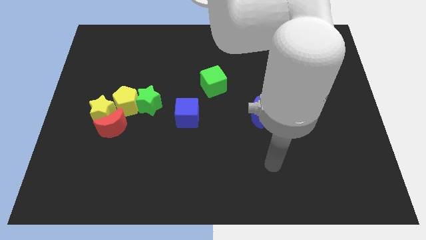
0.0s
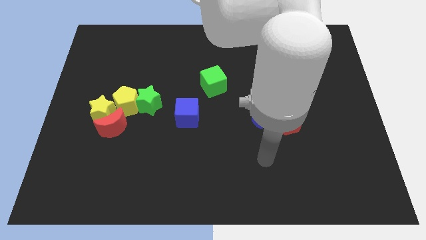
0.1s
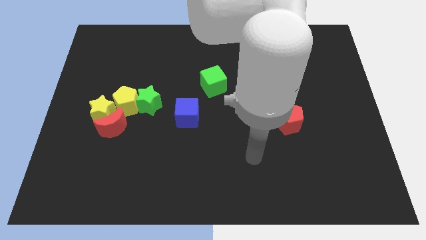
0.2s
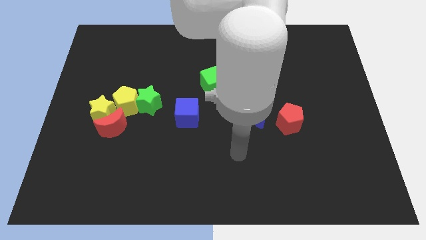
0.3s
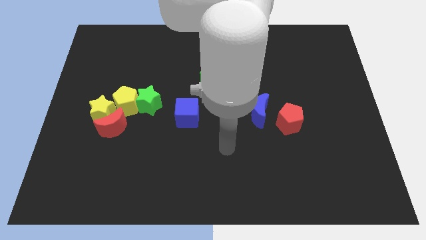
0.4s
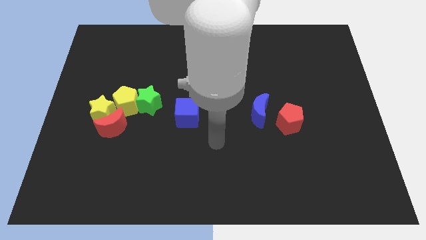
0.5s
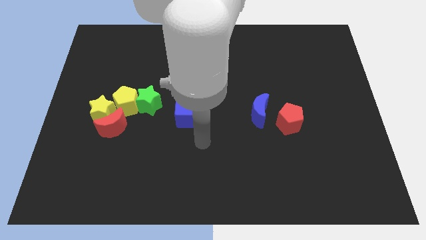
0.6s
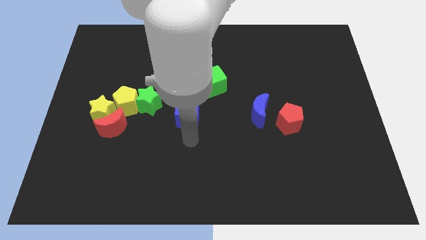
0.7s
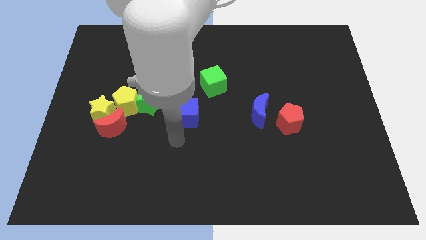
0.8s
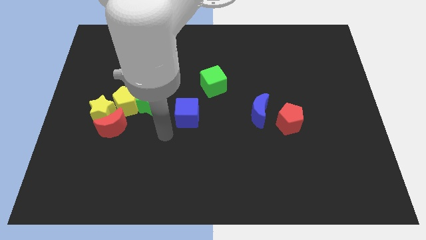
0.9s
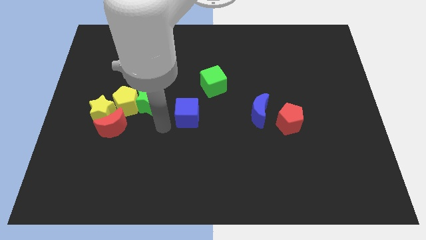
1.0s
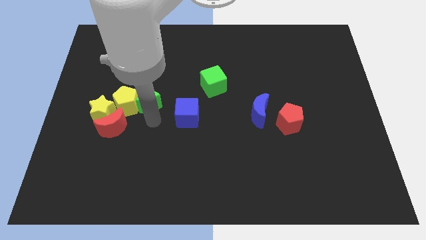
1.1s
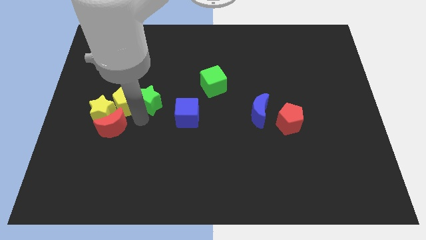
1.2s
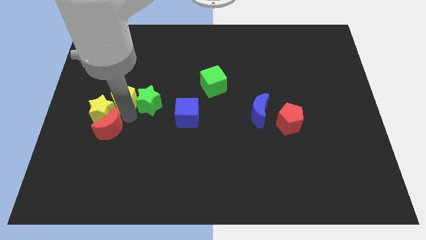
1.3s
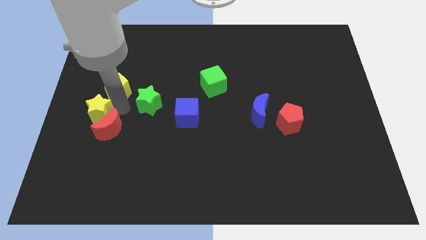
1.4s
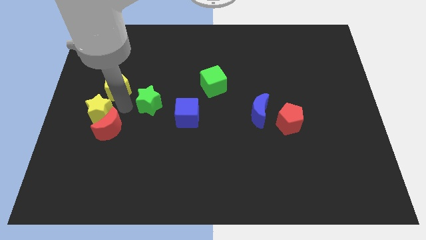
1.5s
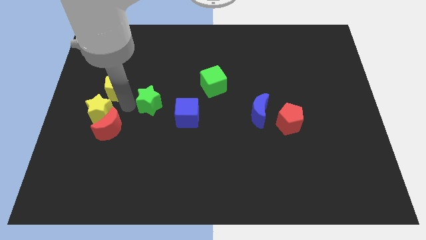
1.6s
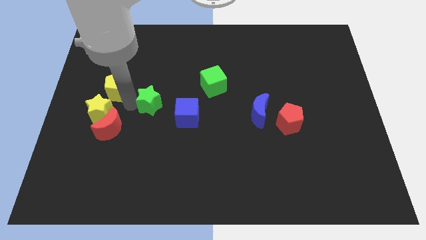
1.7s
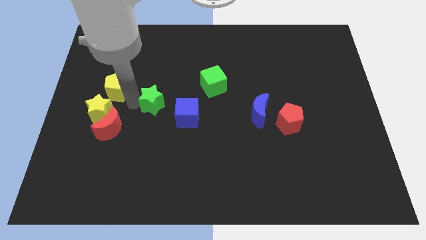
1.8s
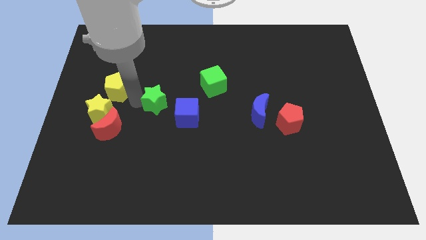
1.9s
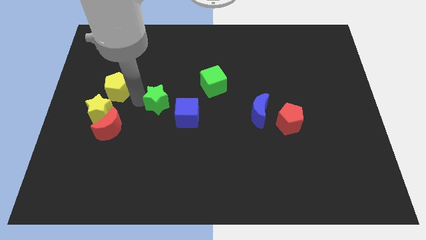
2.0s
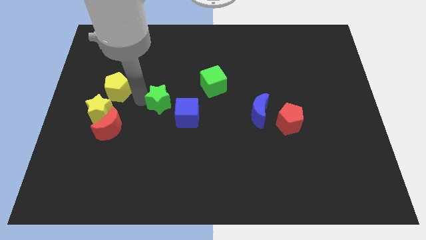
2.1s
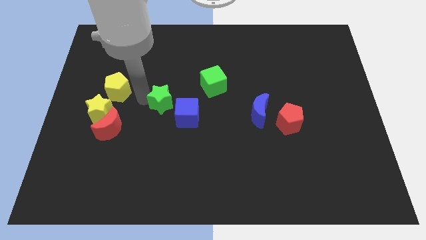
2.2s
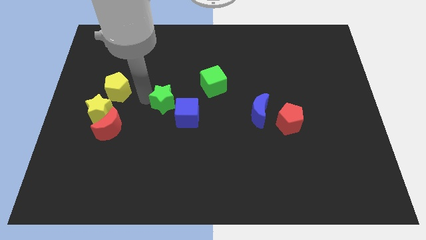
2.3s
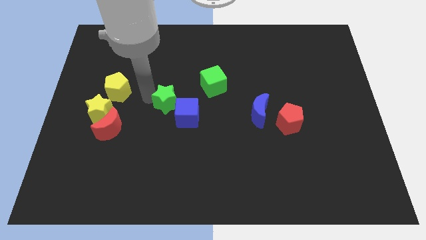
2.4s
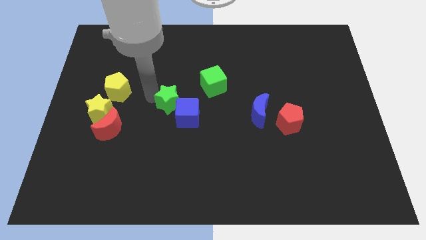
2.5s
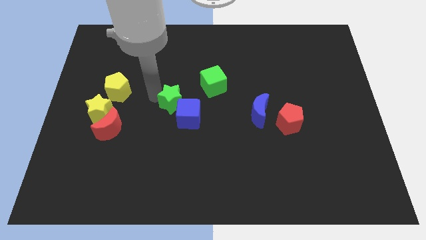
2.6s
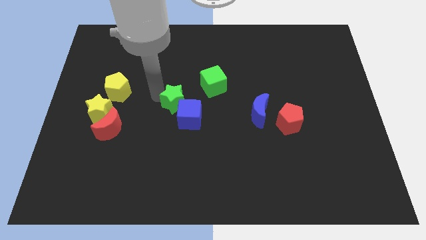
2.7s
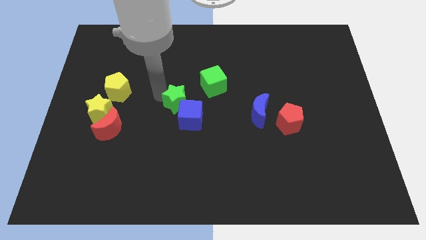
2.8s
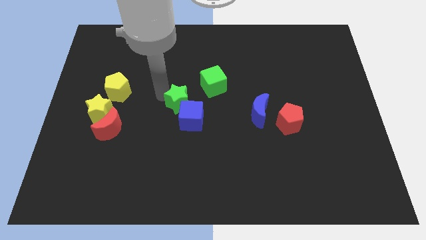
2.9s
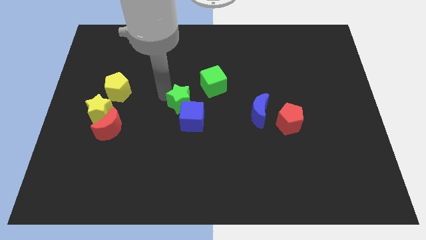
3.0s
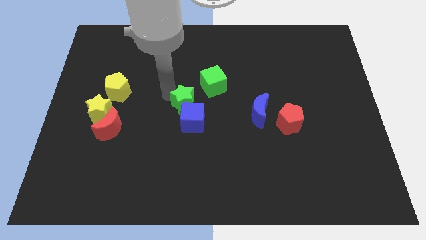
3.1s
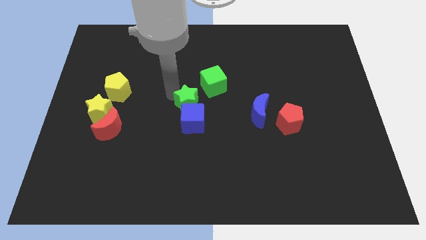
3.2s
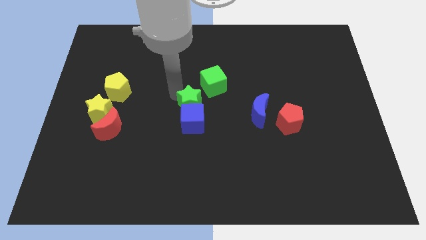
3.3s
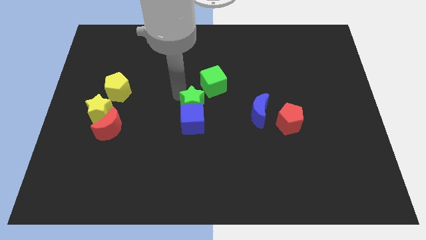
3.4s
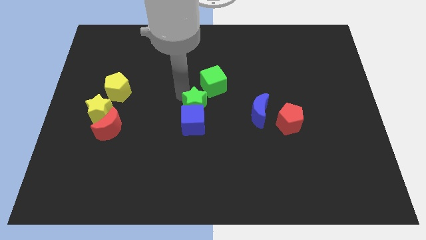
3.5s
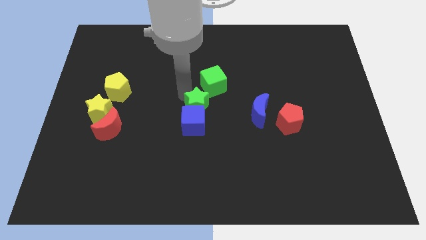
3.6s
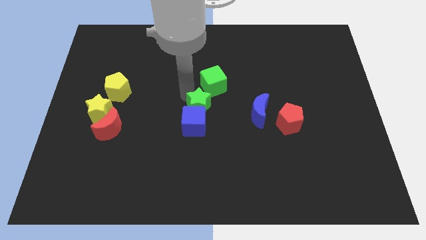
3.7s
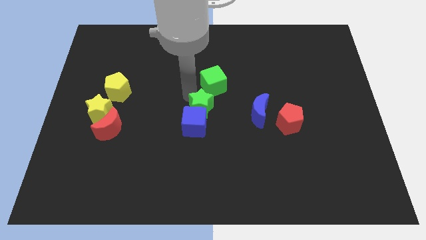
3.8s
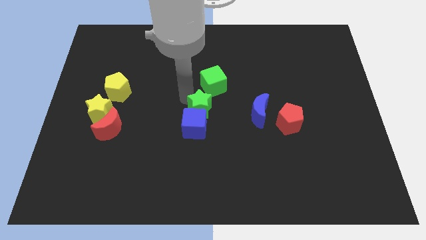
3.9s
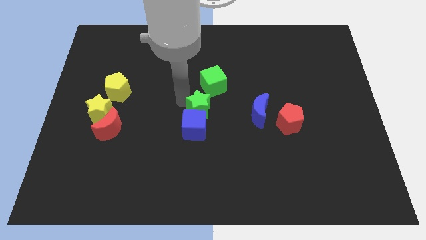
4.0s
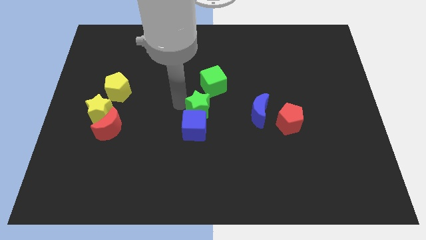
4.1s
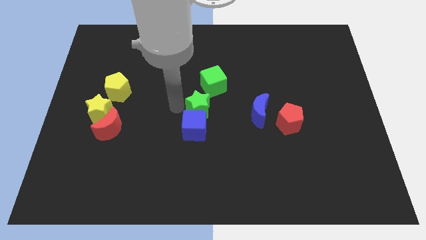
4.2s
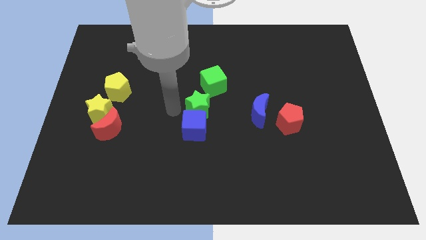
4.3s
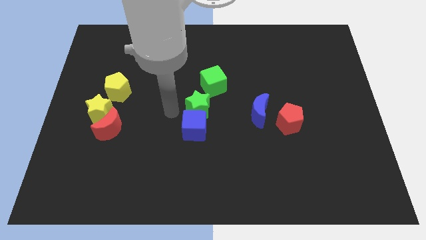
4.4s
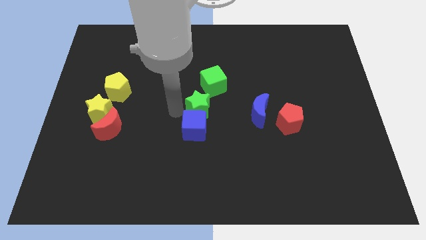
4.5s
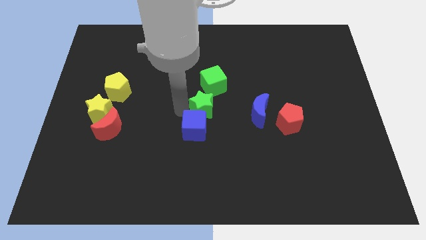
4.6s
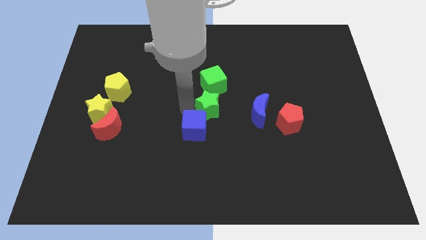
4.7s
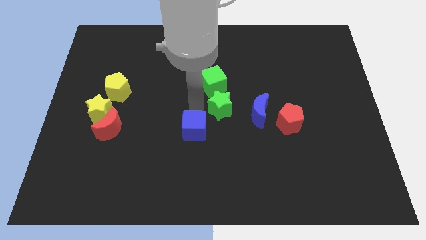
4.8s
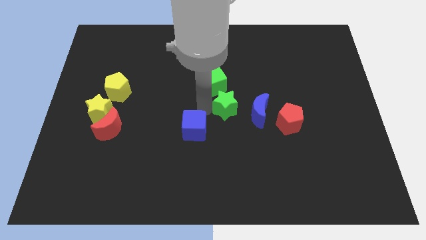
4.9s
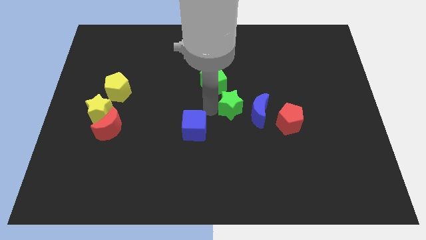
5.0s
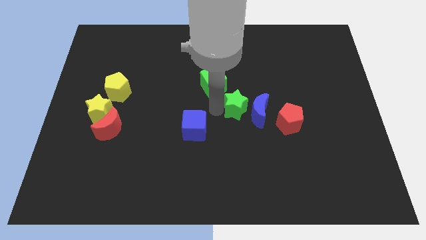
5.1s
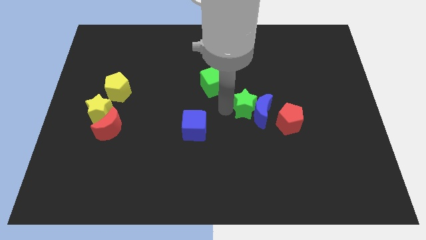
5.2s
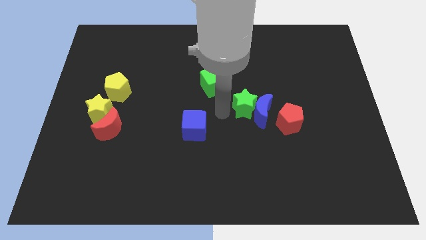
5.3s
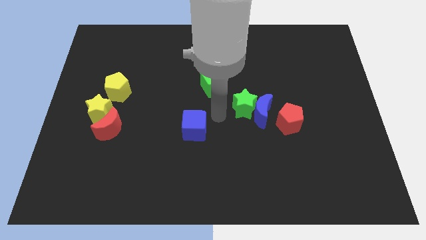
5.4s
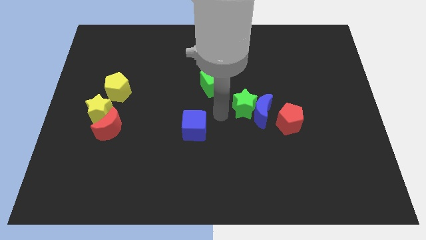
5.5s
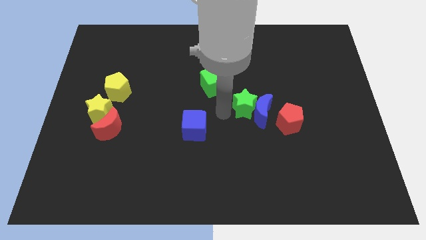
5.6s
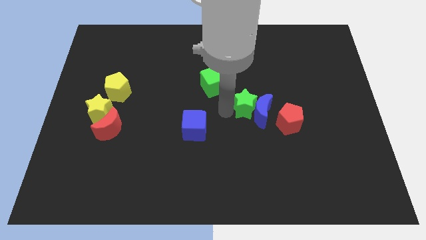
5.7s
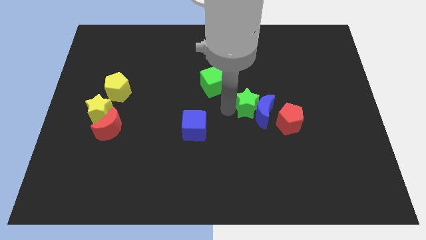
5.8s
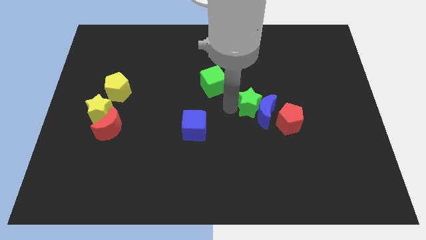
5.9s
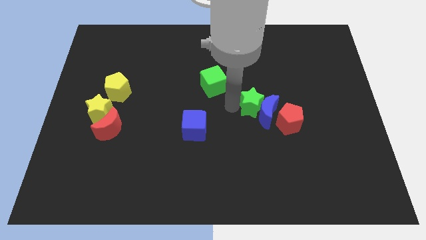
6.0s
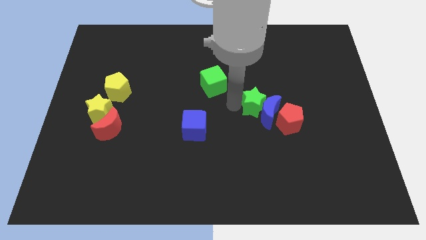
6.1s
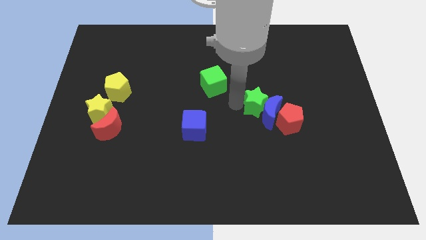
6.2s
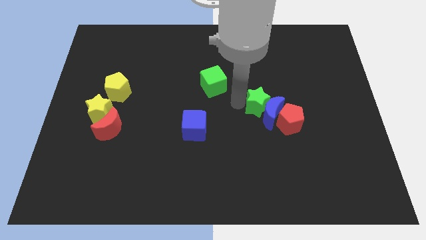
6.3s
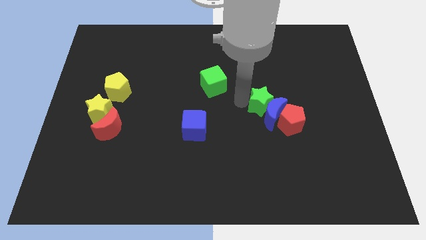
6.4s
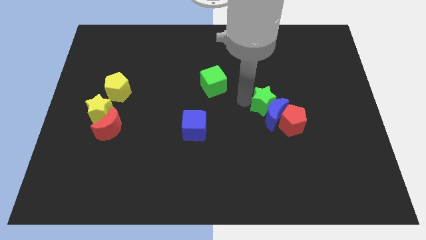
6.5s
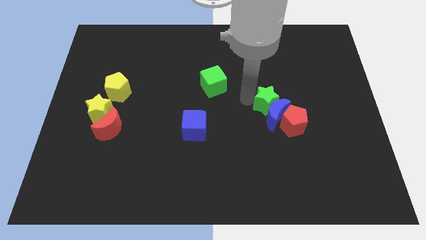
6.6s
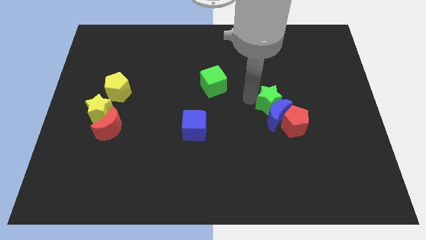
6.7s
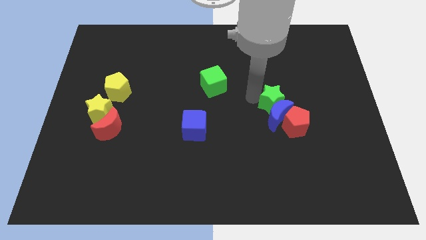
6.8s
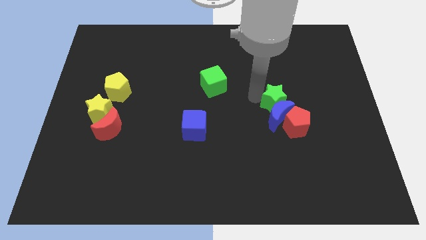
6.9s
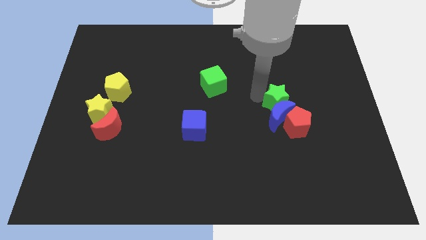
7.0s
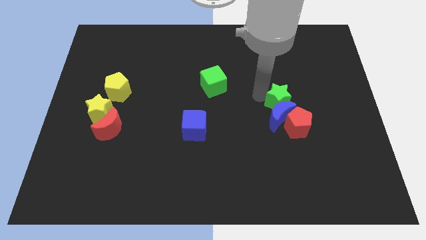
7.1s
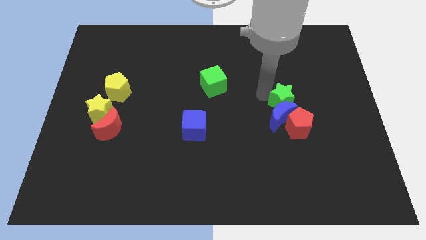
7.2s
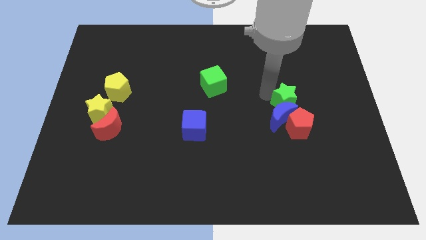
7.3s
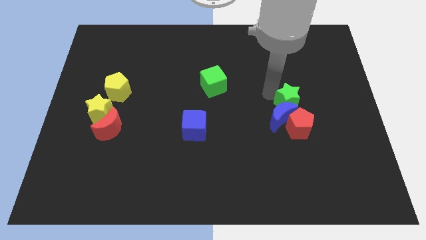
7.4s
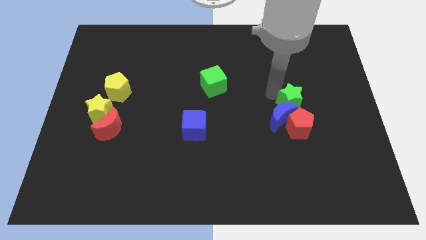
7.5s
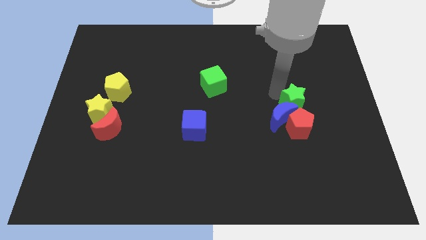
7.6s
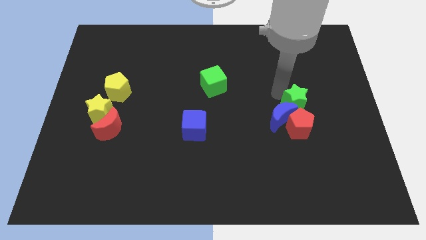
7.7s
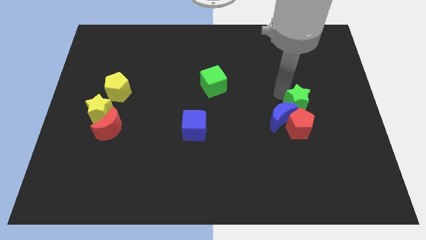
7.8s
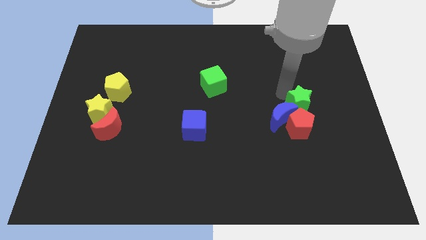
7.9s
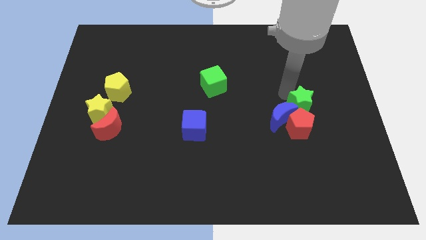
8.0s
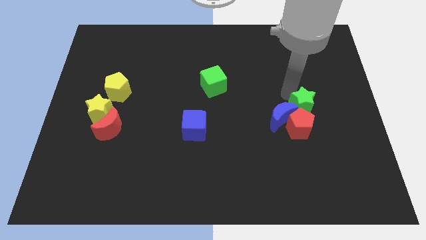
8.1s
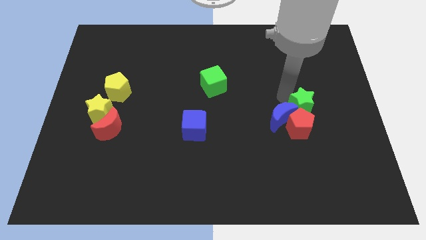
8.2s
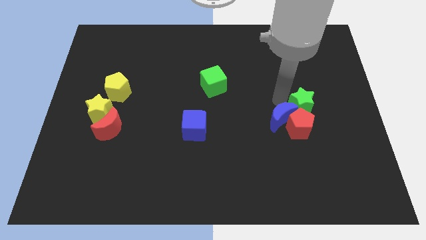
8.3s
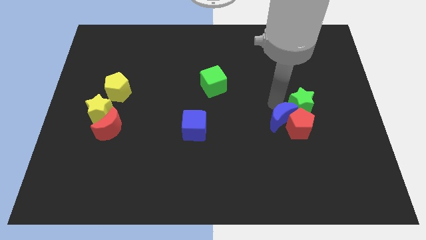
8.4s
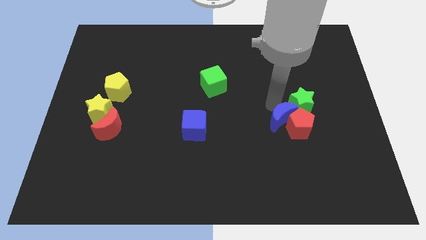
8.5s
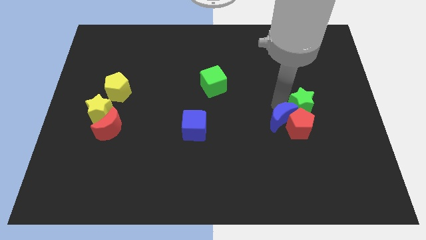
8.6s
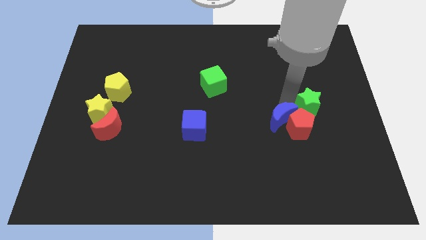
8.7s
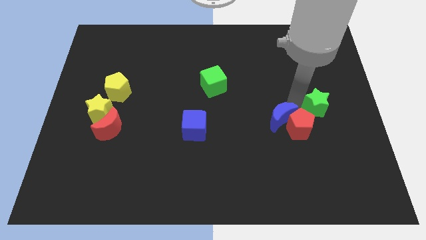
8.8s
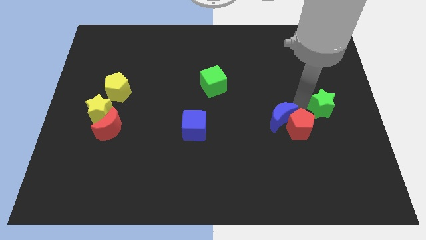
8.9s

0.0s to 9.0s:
slide the green star to the center right
